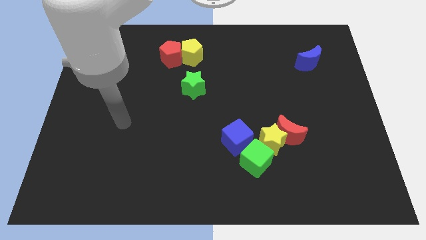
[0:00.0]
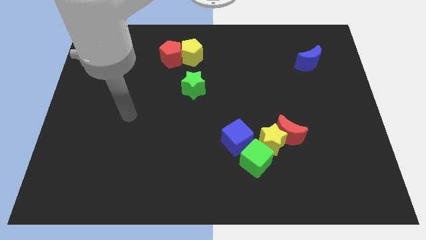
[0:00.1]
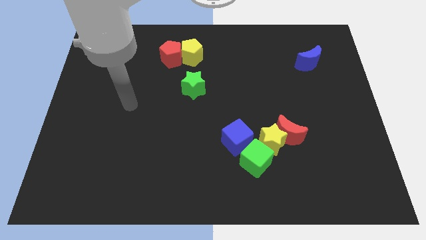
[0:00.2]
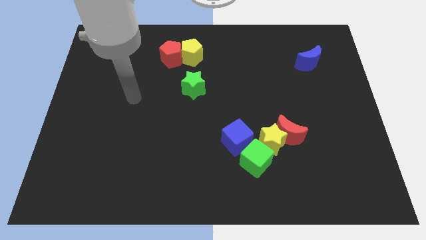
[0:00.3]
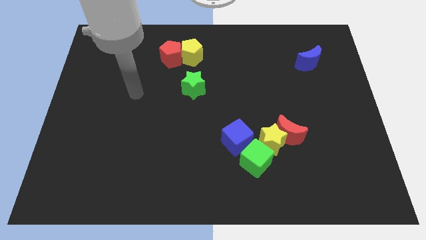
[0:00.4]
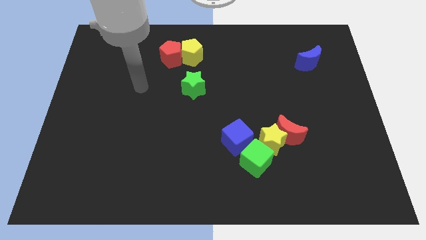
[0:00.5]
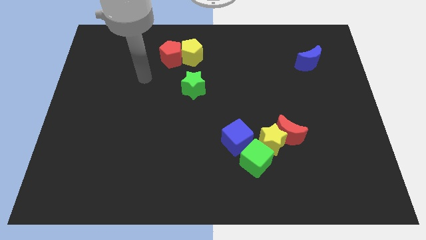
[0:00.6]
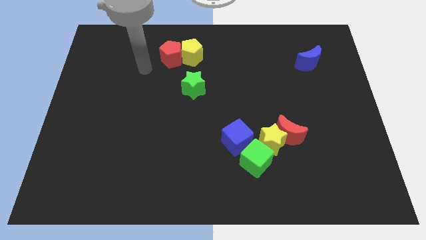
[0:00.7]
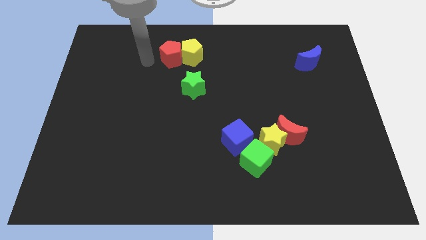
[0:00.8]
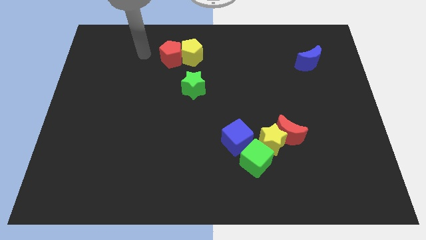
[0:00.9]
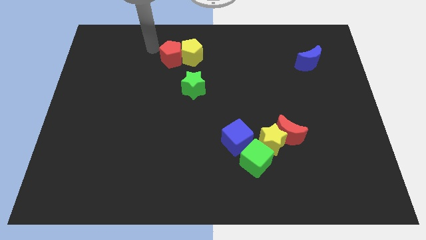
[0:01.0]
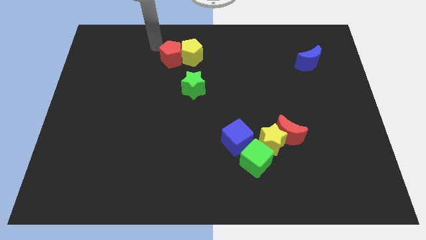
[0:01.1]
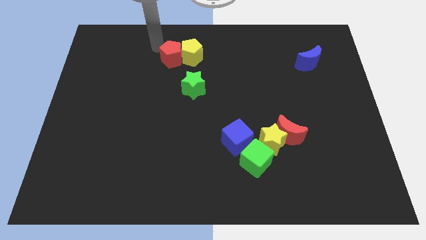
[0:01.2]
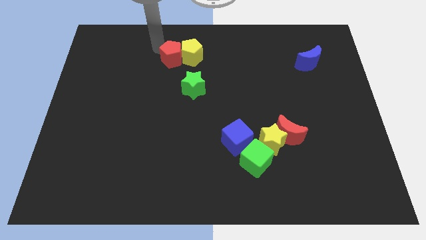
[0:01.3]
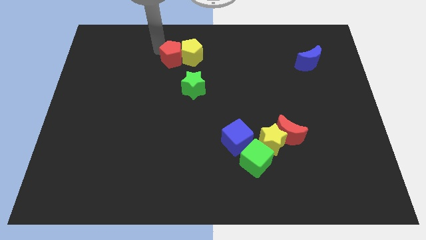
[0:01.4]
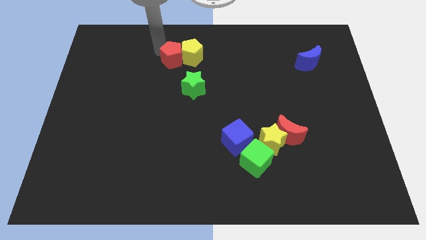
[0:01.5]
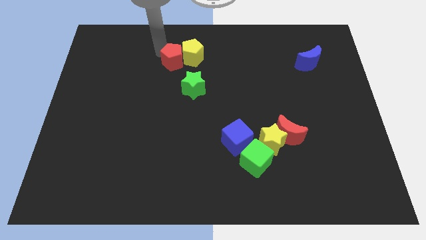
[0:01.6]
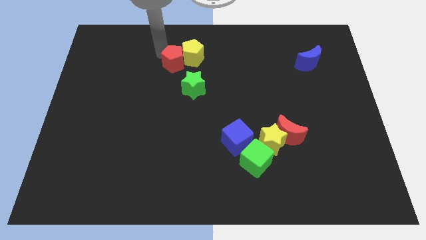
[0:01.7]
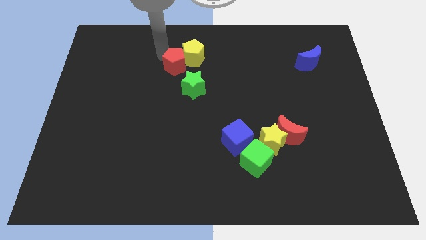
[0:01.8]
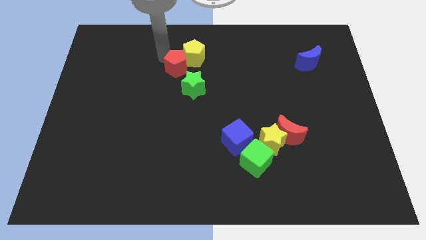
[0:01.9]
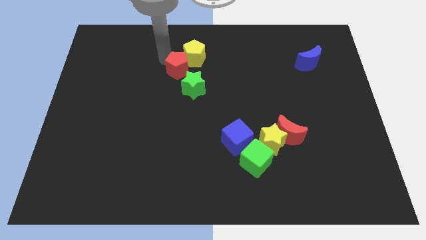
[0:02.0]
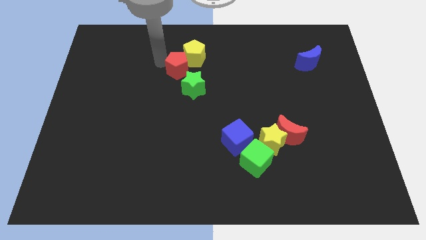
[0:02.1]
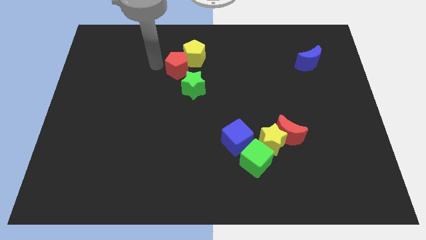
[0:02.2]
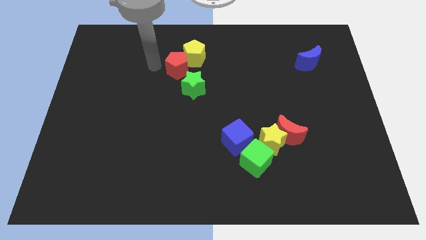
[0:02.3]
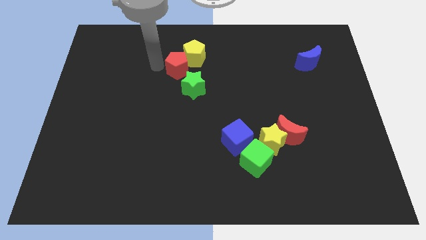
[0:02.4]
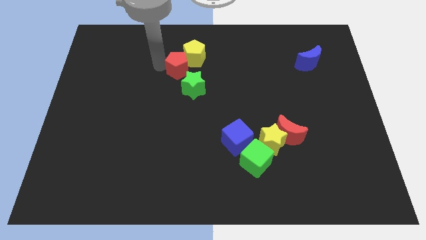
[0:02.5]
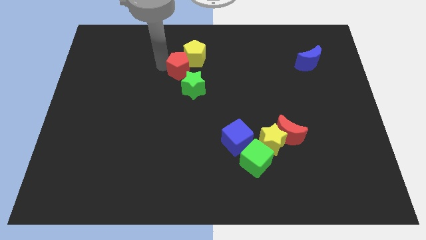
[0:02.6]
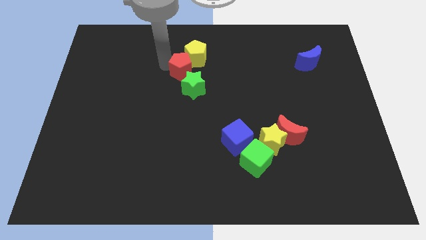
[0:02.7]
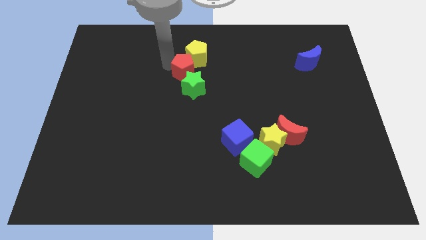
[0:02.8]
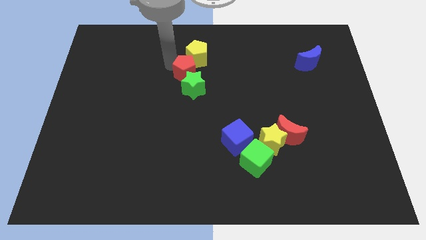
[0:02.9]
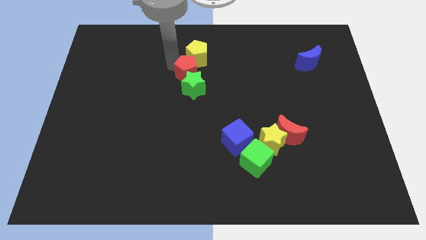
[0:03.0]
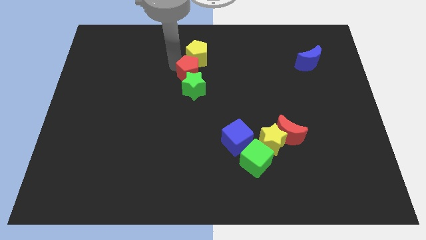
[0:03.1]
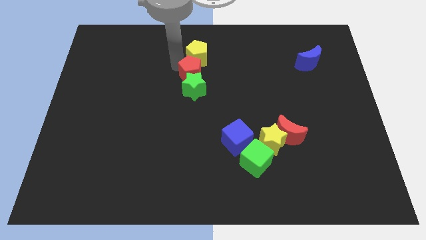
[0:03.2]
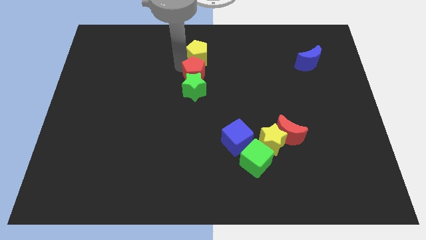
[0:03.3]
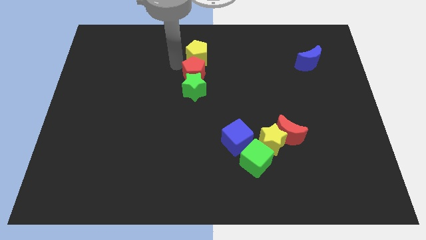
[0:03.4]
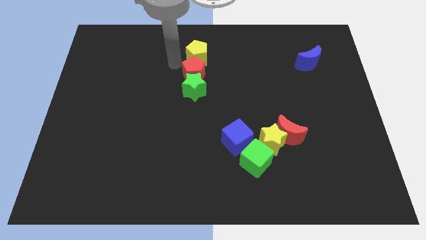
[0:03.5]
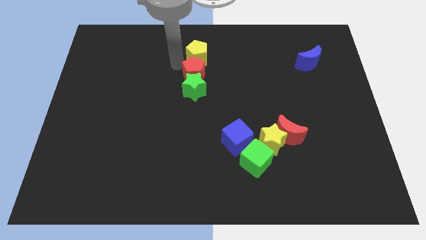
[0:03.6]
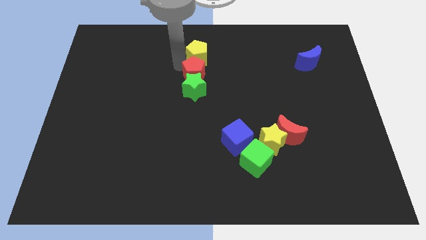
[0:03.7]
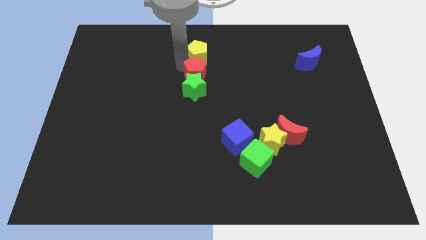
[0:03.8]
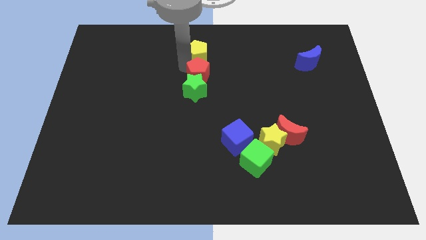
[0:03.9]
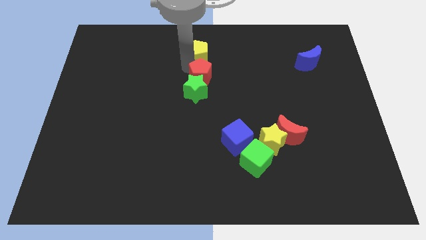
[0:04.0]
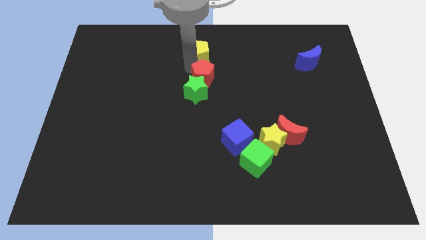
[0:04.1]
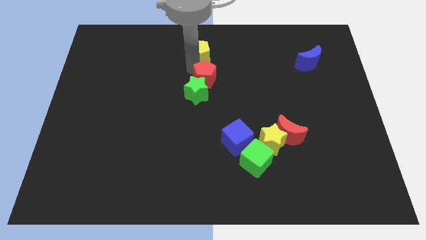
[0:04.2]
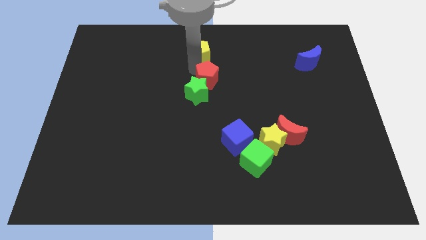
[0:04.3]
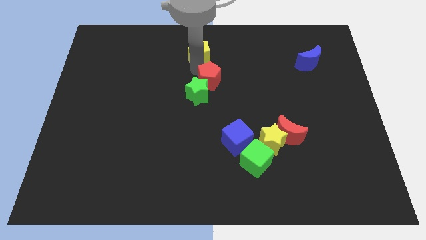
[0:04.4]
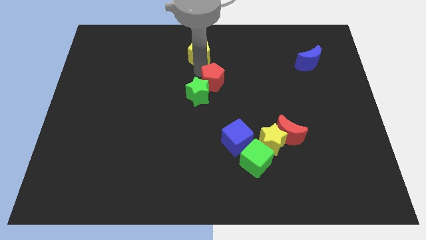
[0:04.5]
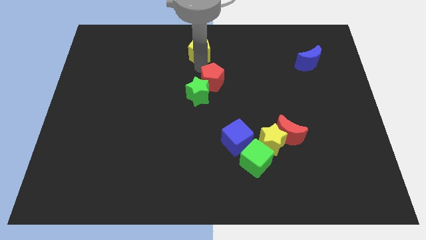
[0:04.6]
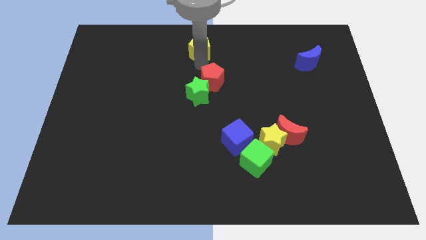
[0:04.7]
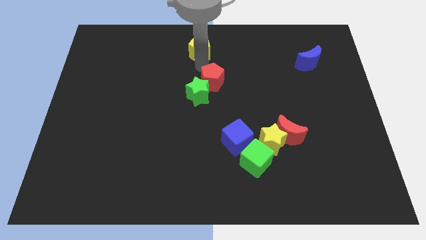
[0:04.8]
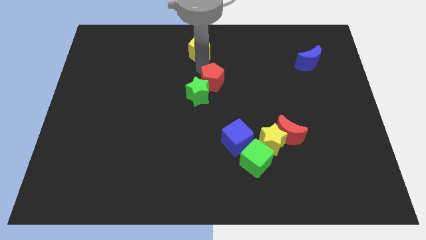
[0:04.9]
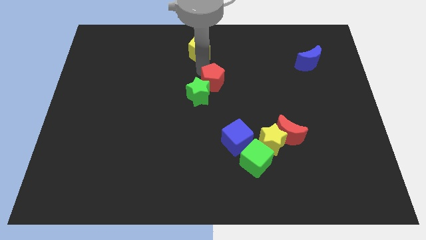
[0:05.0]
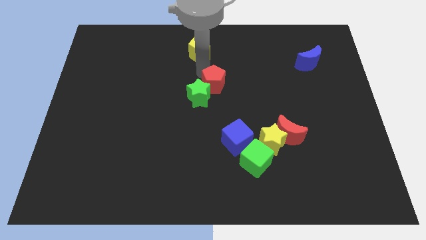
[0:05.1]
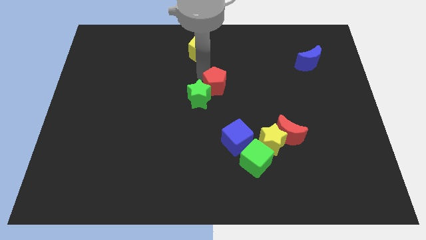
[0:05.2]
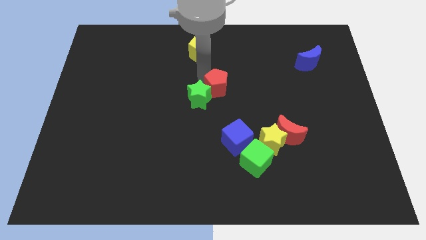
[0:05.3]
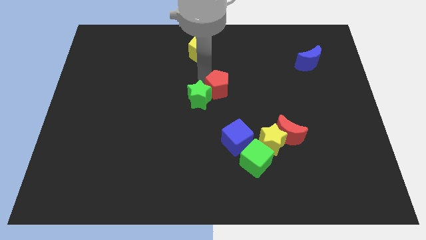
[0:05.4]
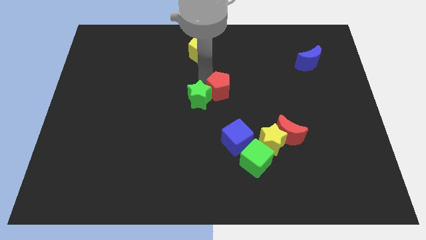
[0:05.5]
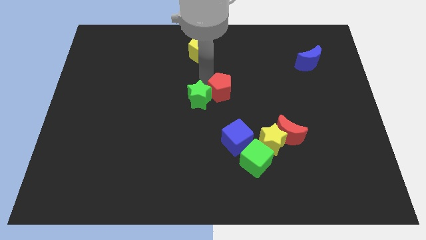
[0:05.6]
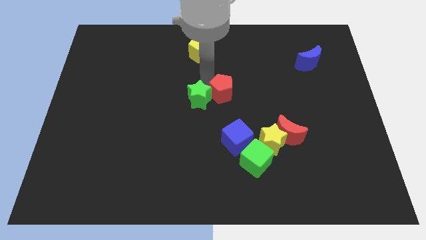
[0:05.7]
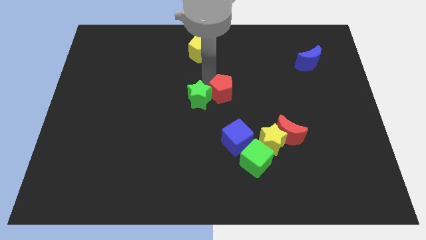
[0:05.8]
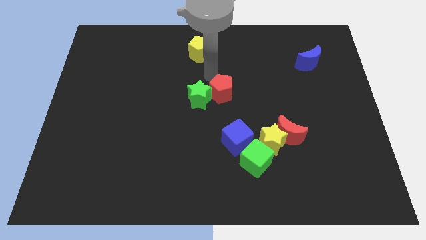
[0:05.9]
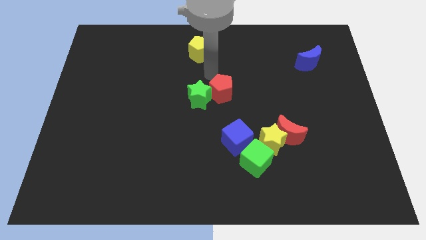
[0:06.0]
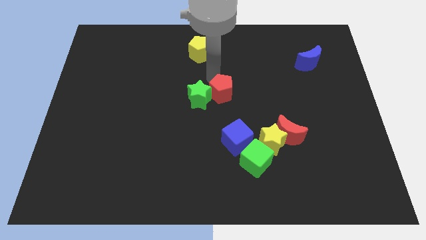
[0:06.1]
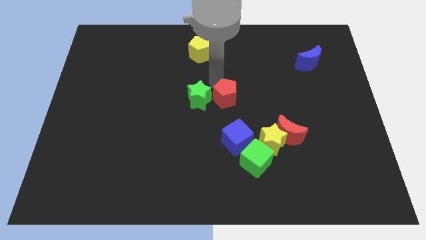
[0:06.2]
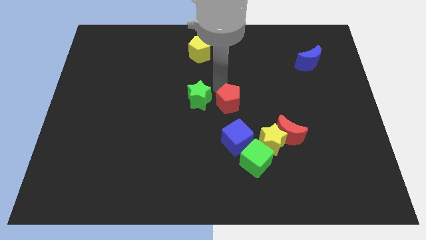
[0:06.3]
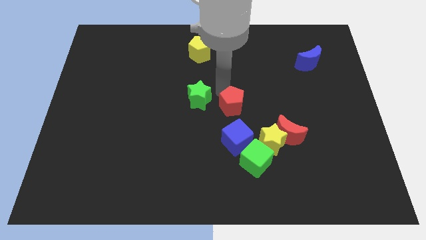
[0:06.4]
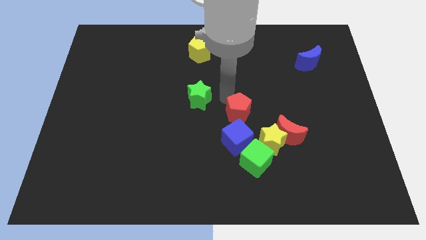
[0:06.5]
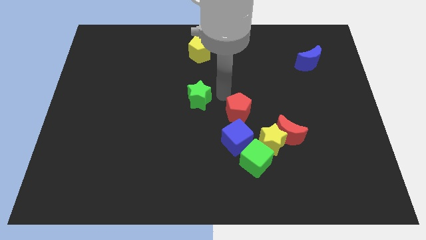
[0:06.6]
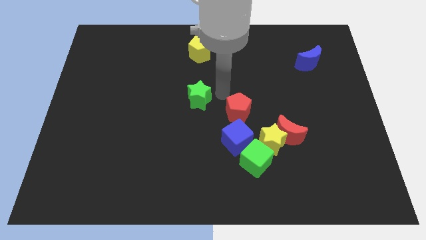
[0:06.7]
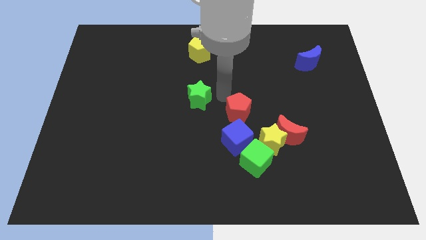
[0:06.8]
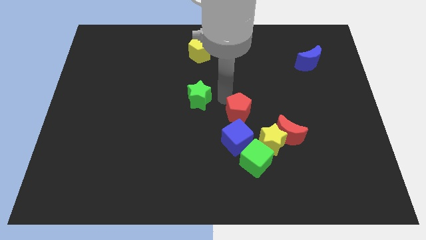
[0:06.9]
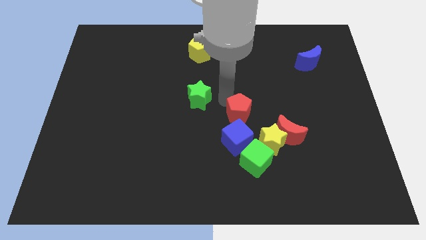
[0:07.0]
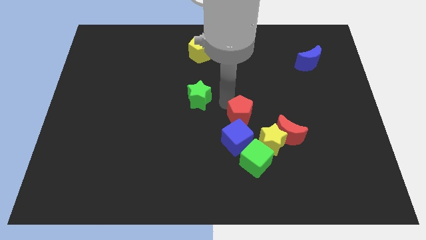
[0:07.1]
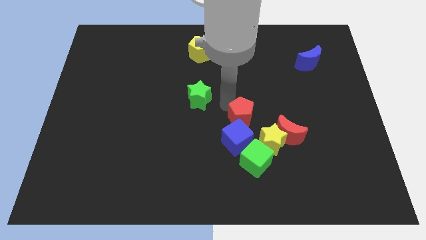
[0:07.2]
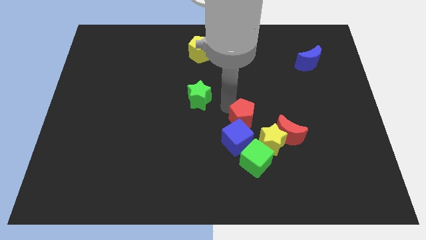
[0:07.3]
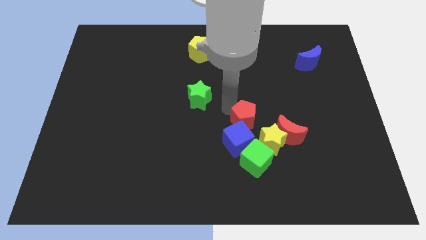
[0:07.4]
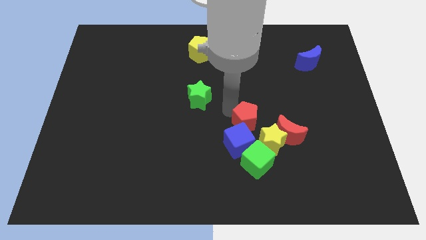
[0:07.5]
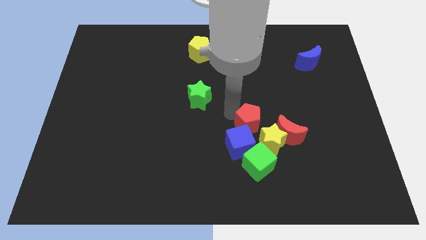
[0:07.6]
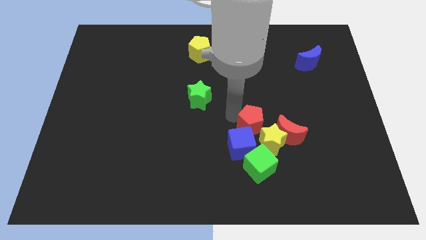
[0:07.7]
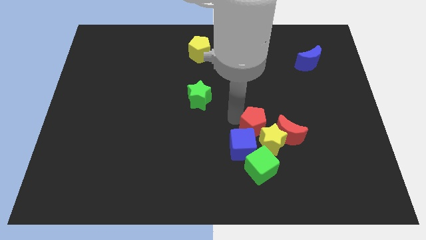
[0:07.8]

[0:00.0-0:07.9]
slide the red pentagon close to the yellow star

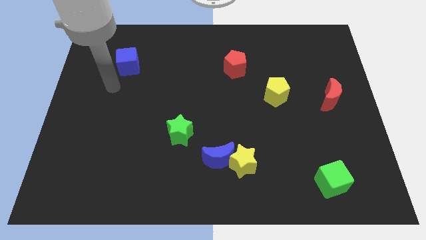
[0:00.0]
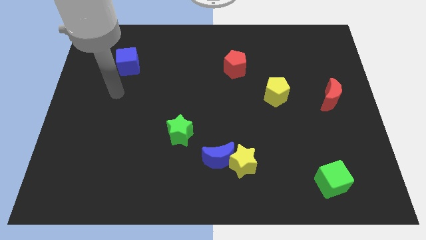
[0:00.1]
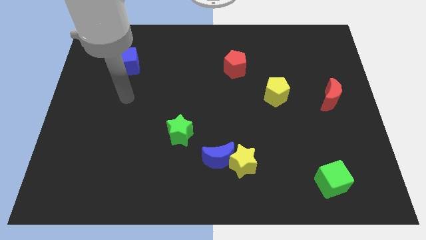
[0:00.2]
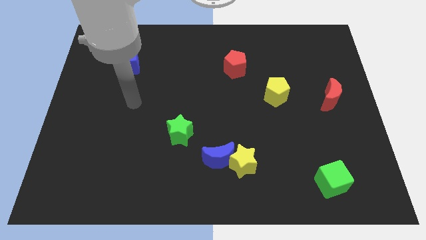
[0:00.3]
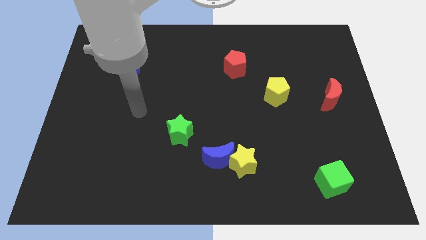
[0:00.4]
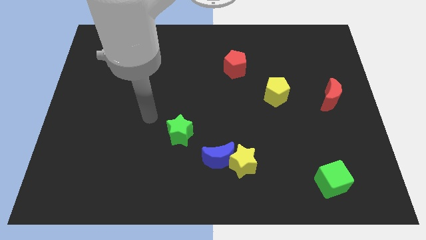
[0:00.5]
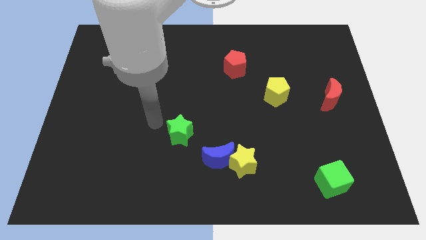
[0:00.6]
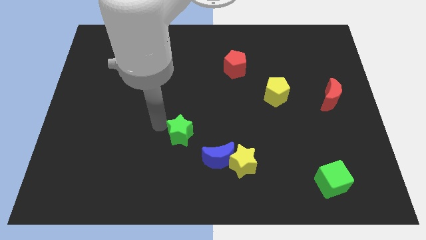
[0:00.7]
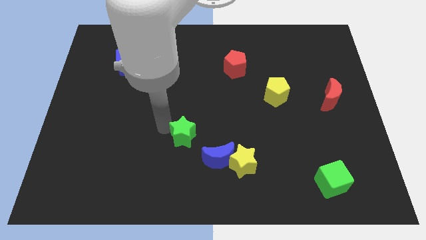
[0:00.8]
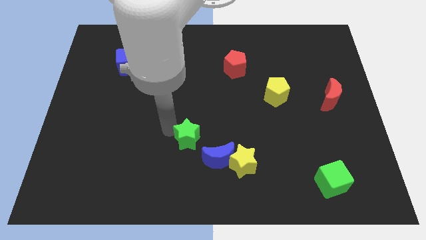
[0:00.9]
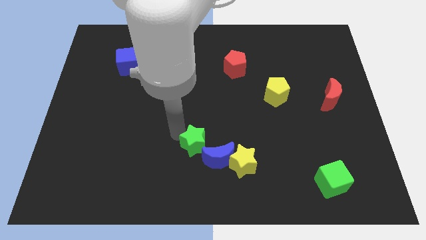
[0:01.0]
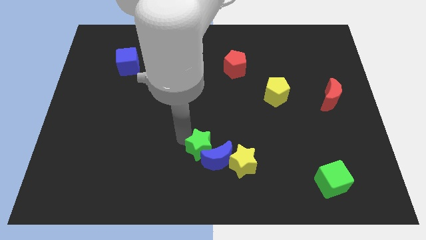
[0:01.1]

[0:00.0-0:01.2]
slide the green star close to the blue moon
